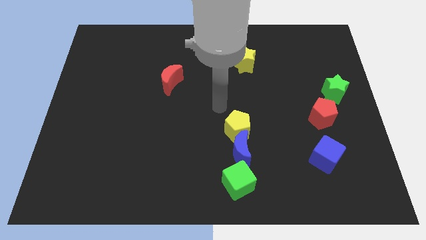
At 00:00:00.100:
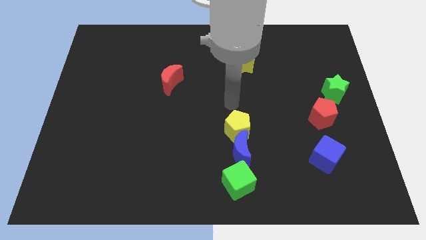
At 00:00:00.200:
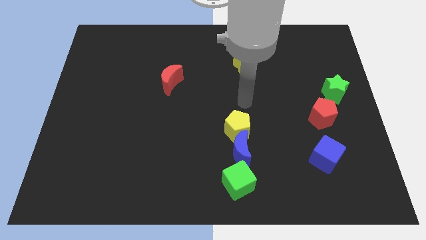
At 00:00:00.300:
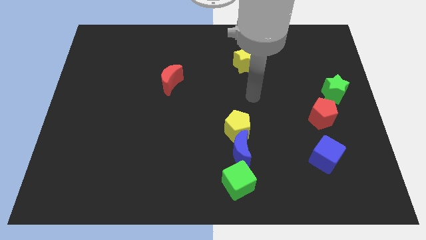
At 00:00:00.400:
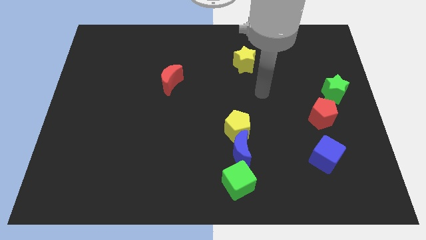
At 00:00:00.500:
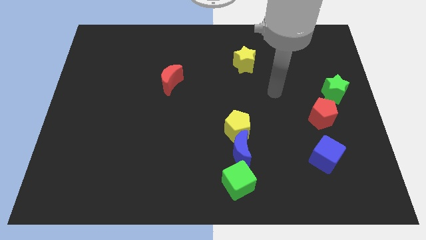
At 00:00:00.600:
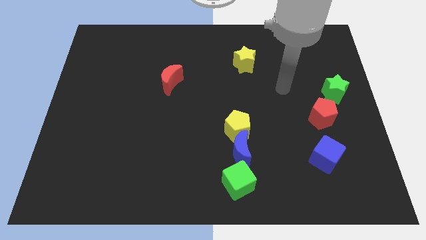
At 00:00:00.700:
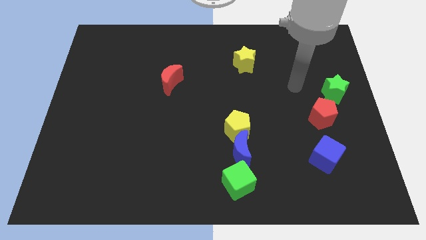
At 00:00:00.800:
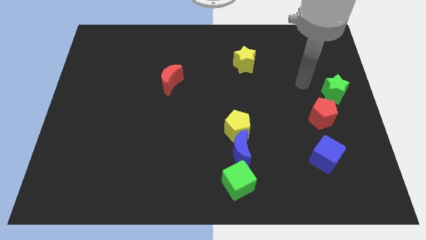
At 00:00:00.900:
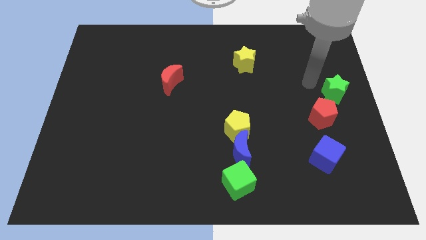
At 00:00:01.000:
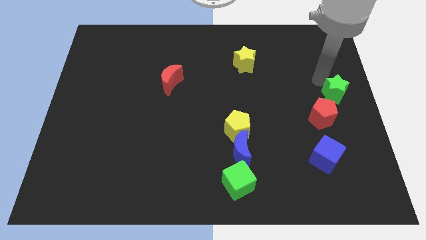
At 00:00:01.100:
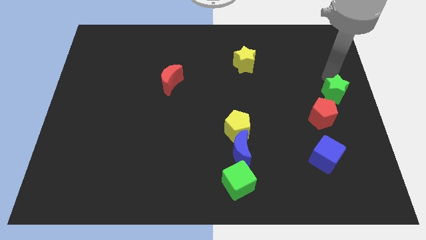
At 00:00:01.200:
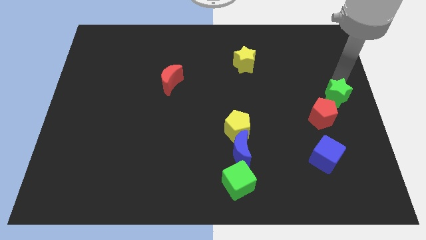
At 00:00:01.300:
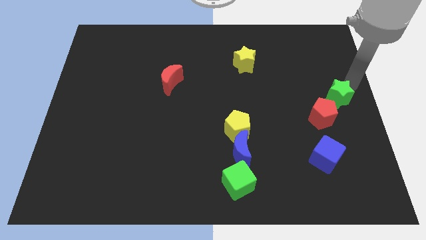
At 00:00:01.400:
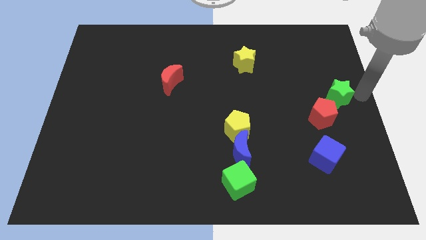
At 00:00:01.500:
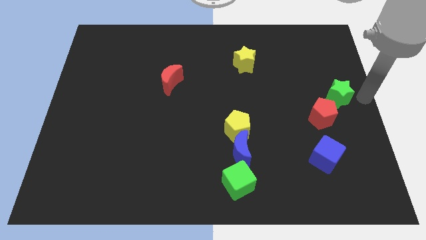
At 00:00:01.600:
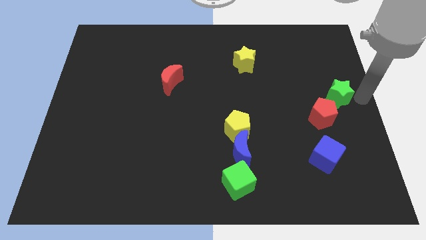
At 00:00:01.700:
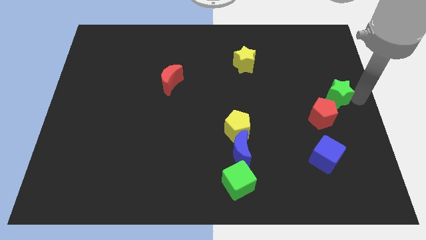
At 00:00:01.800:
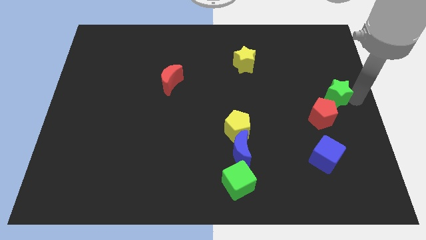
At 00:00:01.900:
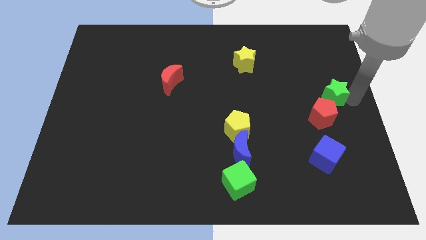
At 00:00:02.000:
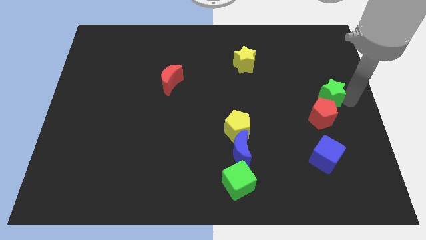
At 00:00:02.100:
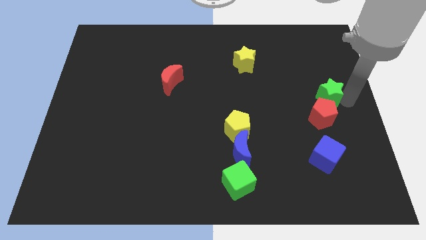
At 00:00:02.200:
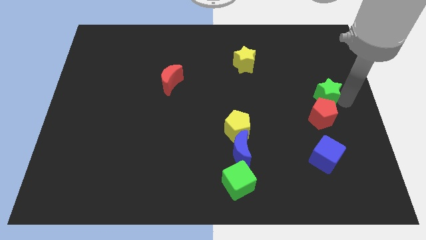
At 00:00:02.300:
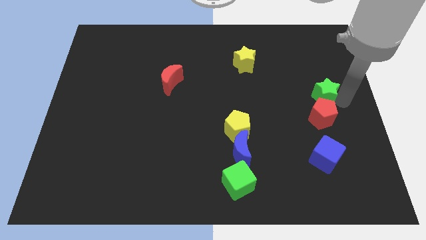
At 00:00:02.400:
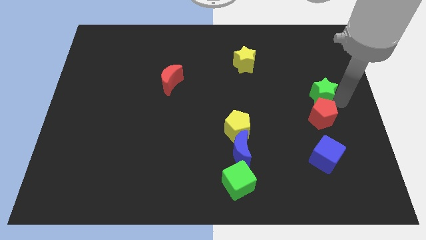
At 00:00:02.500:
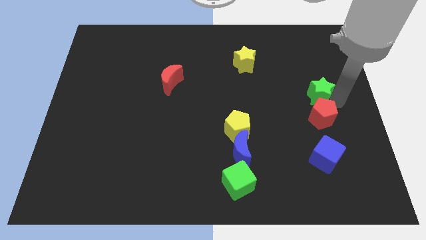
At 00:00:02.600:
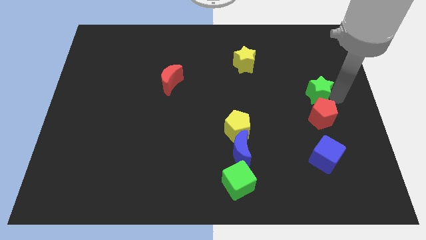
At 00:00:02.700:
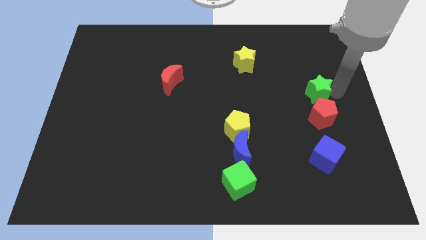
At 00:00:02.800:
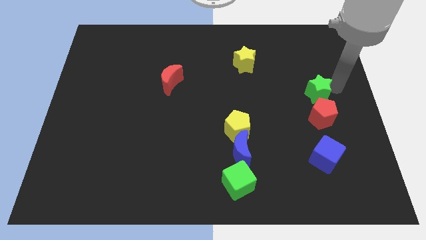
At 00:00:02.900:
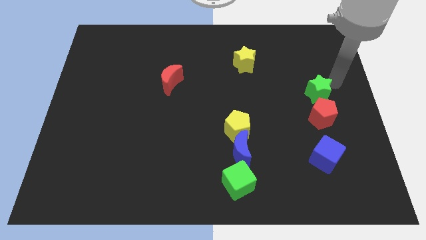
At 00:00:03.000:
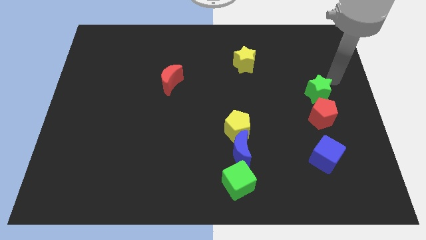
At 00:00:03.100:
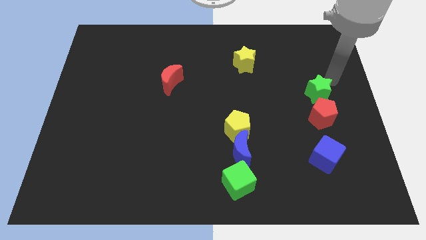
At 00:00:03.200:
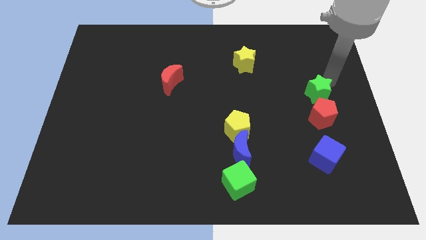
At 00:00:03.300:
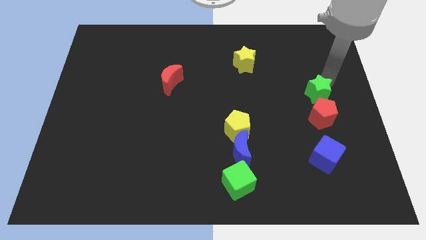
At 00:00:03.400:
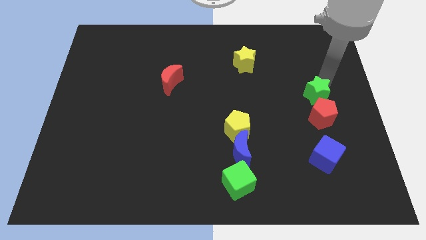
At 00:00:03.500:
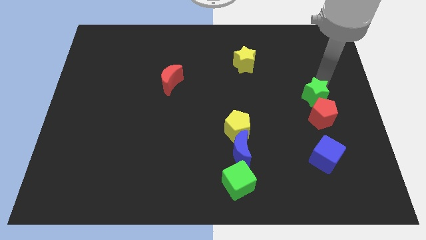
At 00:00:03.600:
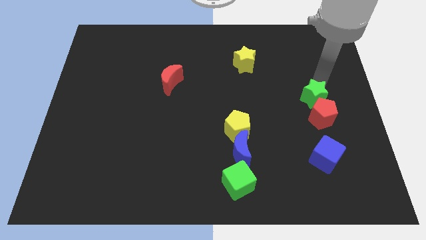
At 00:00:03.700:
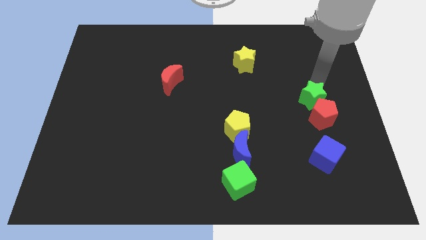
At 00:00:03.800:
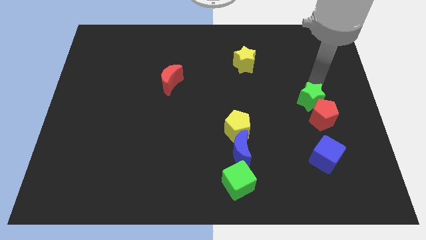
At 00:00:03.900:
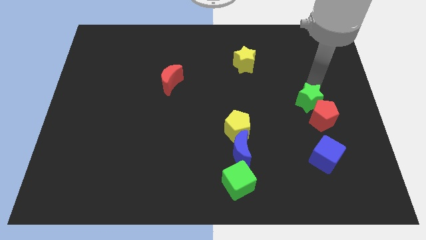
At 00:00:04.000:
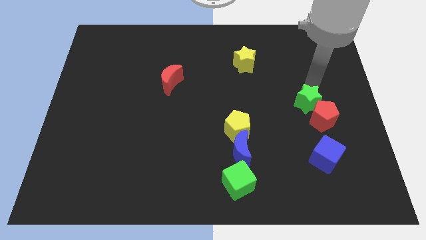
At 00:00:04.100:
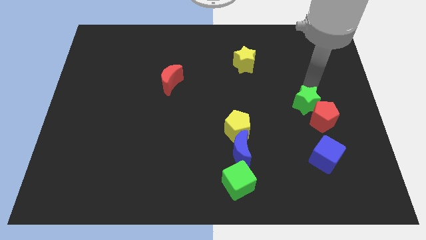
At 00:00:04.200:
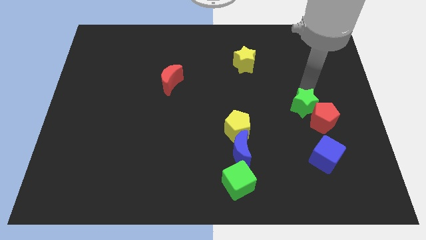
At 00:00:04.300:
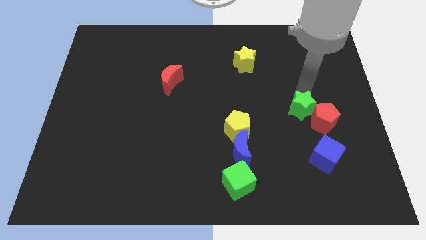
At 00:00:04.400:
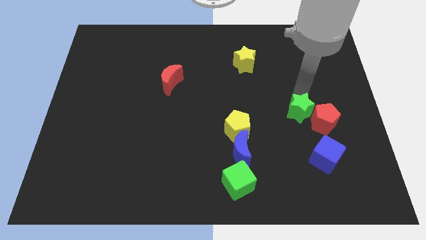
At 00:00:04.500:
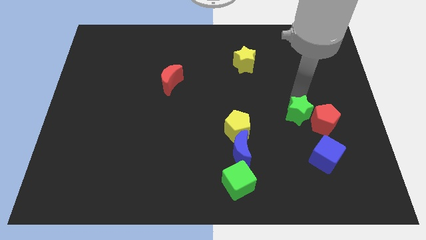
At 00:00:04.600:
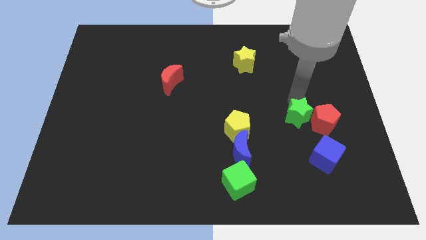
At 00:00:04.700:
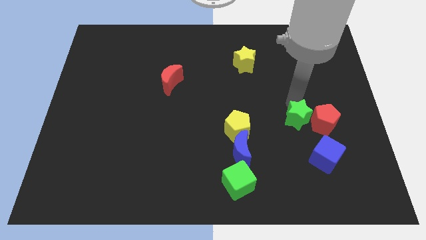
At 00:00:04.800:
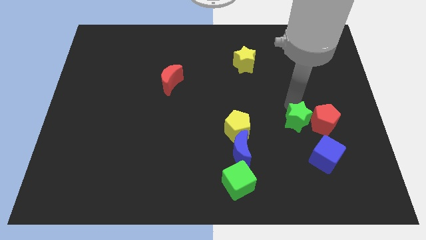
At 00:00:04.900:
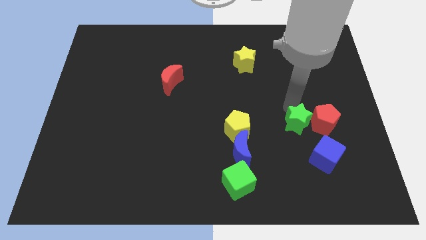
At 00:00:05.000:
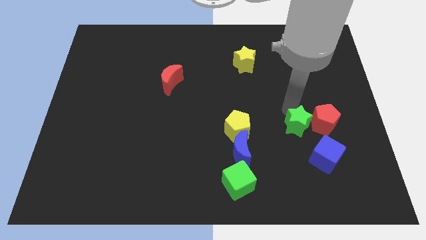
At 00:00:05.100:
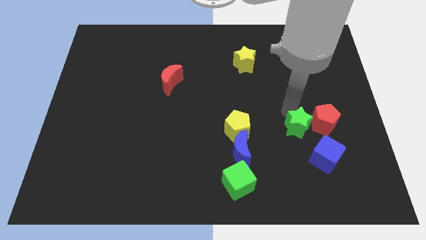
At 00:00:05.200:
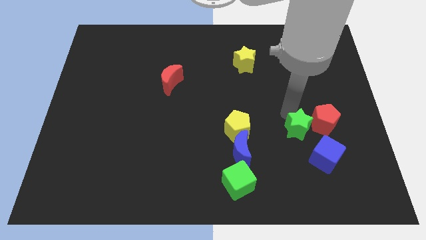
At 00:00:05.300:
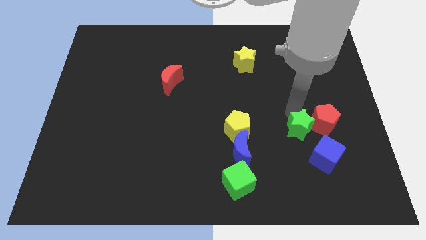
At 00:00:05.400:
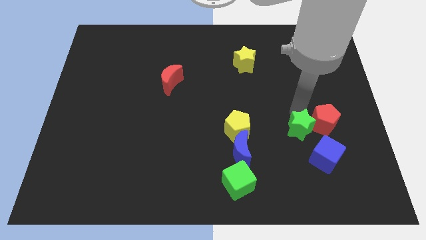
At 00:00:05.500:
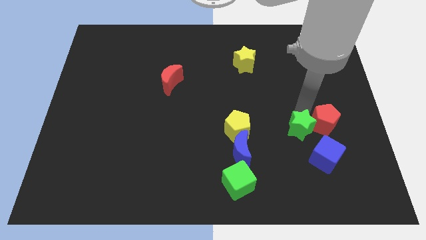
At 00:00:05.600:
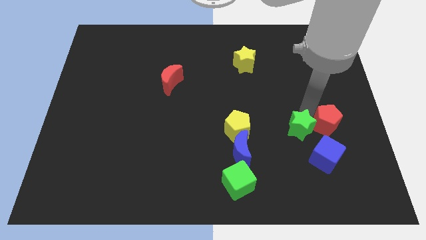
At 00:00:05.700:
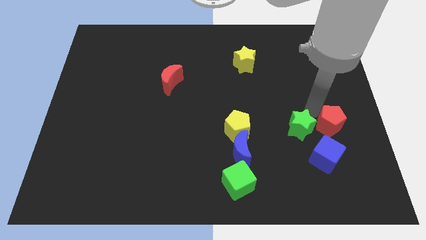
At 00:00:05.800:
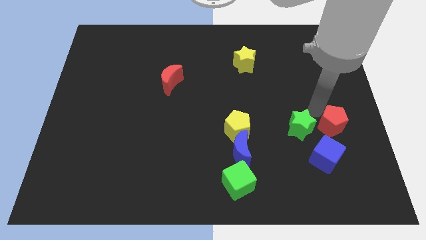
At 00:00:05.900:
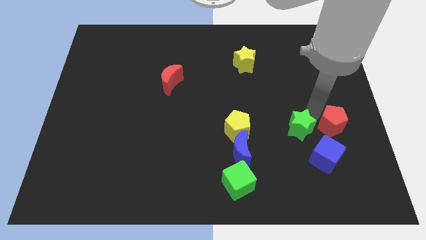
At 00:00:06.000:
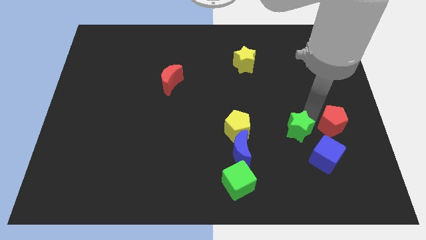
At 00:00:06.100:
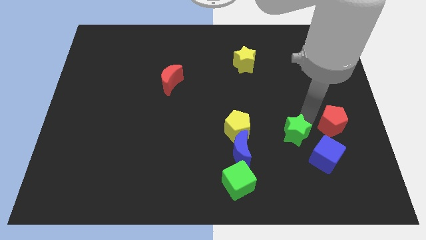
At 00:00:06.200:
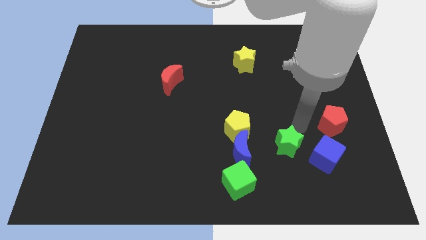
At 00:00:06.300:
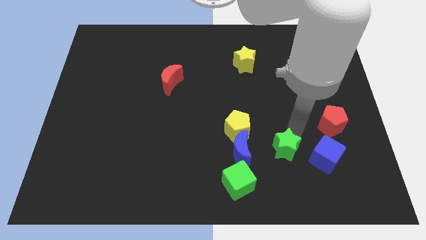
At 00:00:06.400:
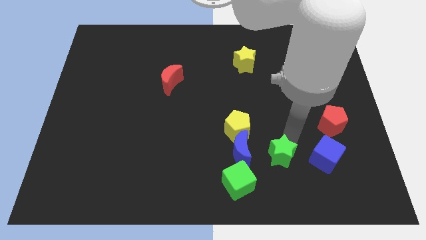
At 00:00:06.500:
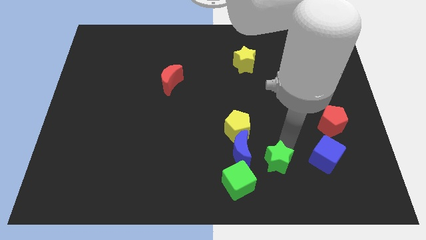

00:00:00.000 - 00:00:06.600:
put the green star diagonally down and to the right of the blue moon

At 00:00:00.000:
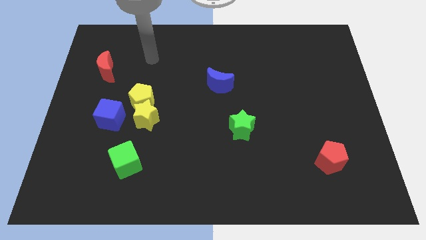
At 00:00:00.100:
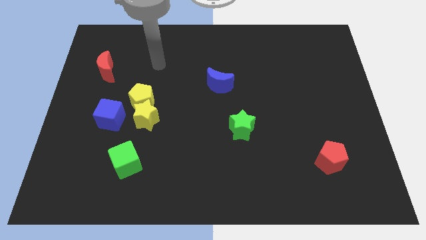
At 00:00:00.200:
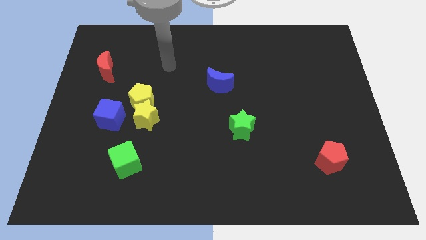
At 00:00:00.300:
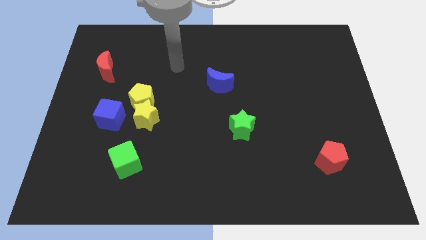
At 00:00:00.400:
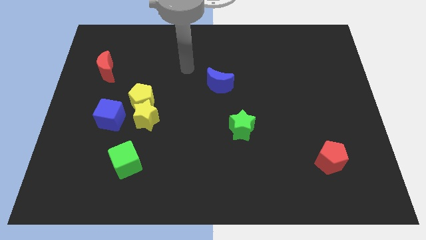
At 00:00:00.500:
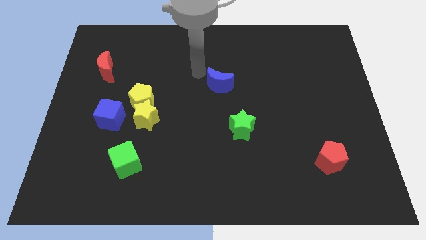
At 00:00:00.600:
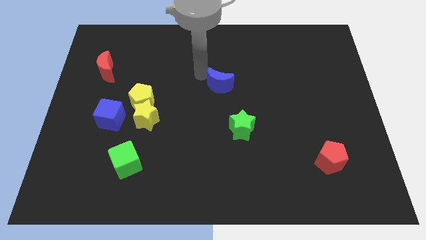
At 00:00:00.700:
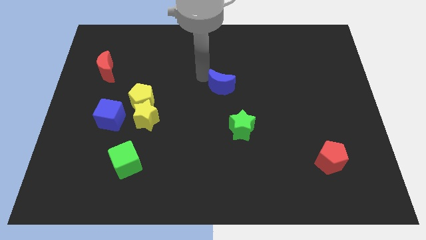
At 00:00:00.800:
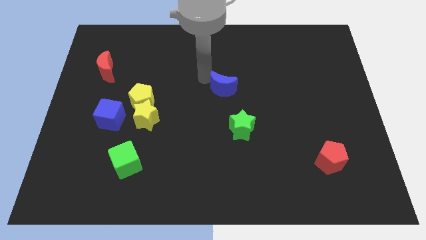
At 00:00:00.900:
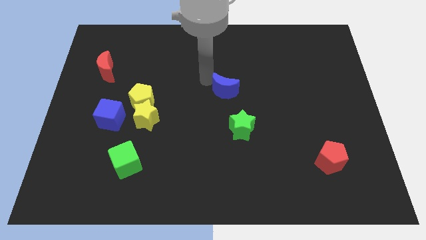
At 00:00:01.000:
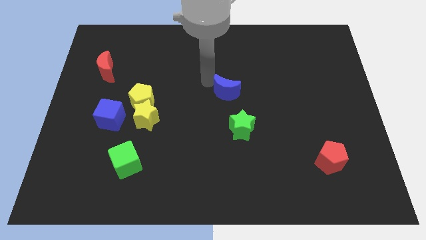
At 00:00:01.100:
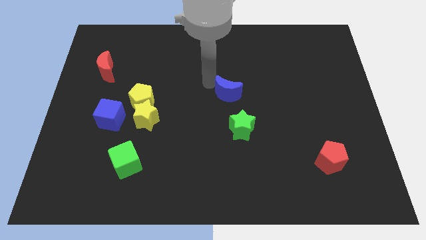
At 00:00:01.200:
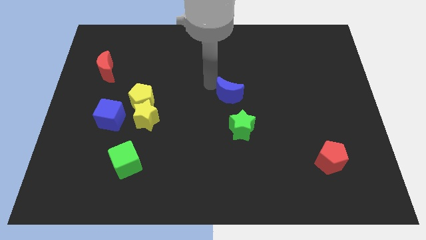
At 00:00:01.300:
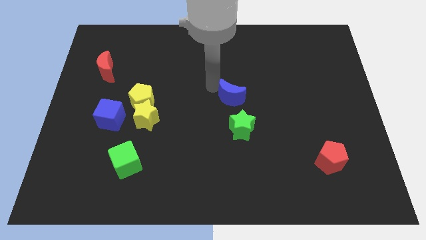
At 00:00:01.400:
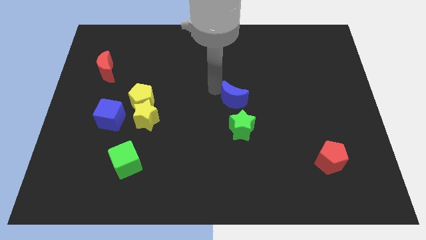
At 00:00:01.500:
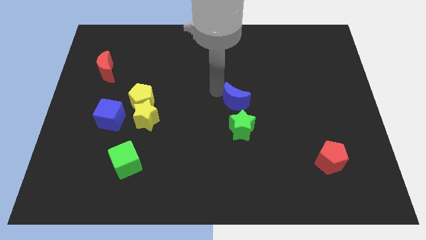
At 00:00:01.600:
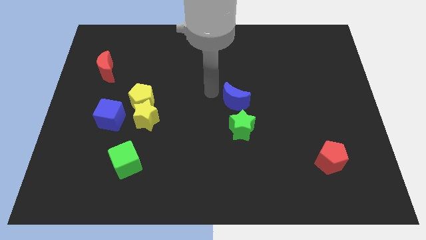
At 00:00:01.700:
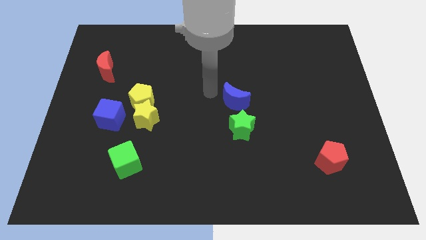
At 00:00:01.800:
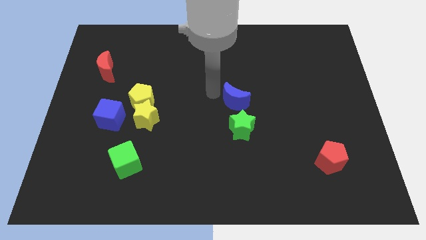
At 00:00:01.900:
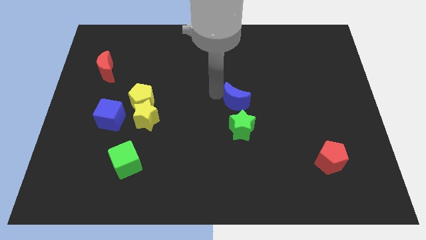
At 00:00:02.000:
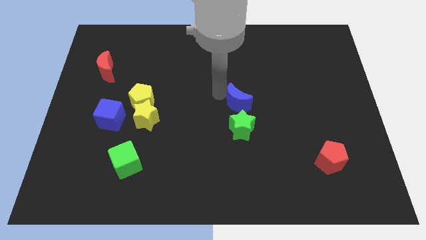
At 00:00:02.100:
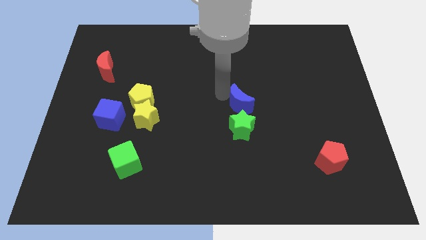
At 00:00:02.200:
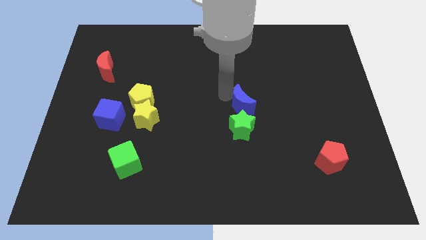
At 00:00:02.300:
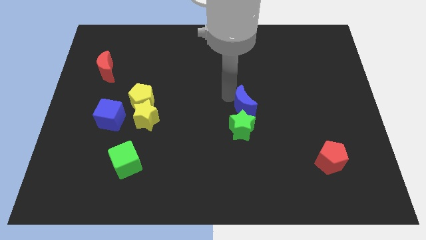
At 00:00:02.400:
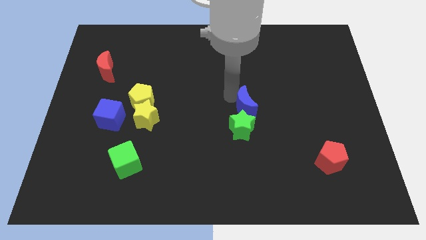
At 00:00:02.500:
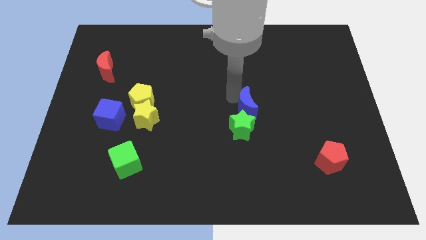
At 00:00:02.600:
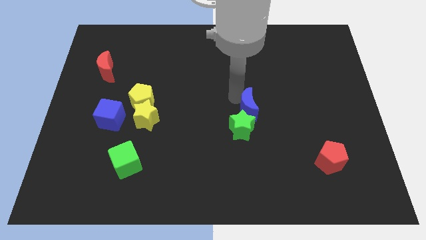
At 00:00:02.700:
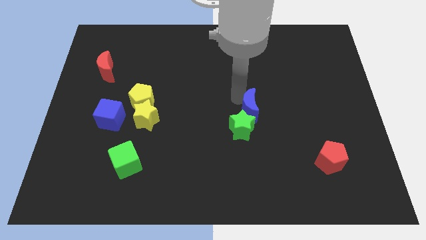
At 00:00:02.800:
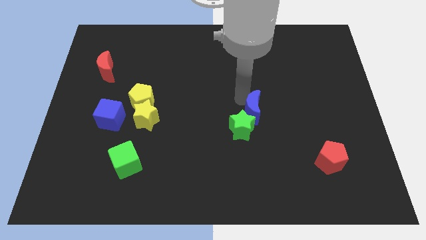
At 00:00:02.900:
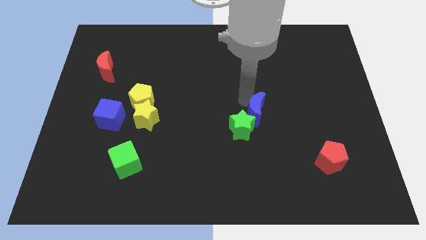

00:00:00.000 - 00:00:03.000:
push the blue moon just right of the green star
